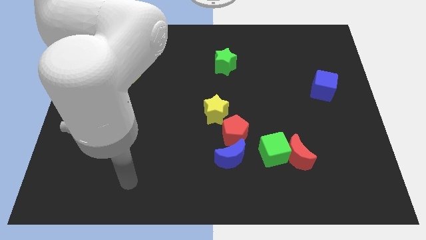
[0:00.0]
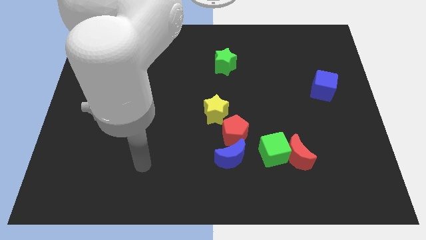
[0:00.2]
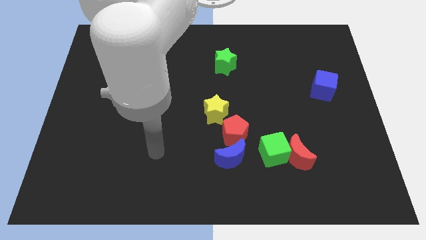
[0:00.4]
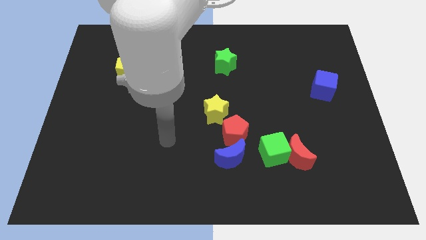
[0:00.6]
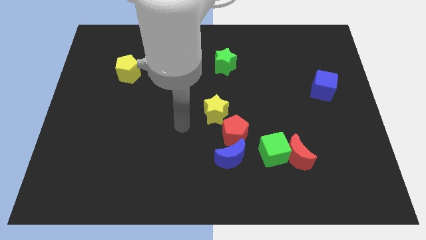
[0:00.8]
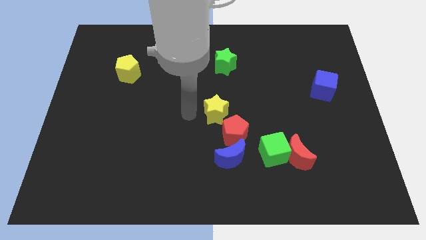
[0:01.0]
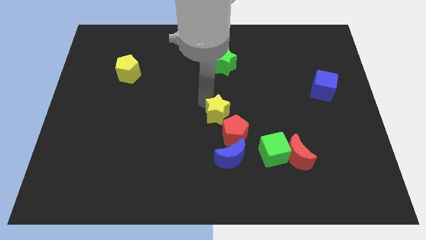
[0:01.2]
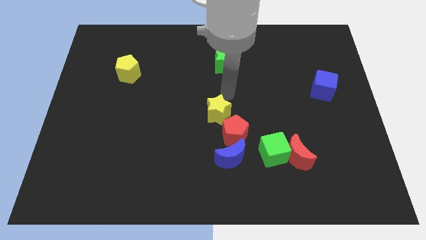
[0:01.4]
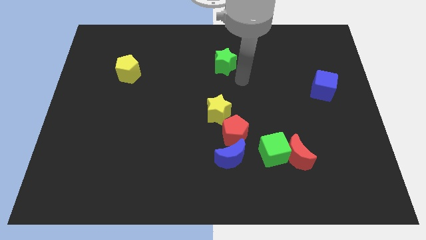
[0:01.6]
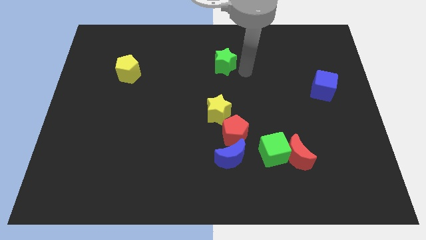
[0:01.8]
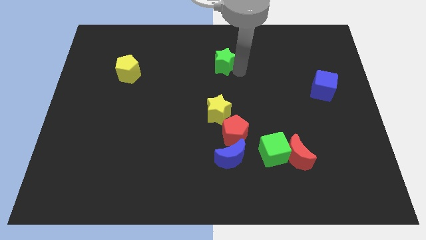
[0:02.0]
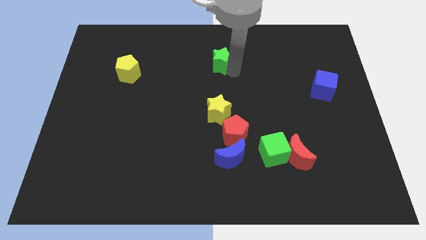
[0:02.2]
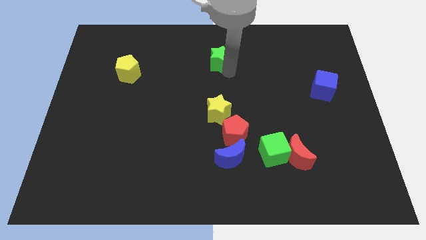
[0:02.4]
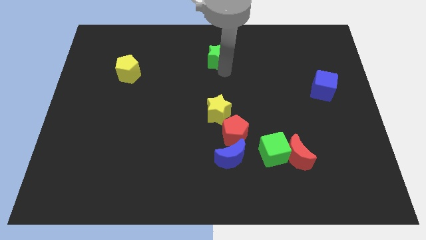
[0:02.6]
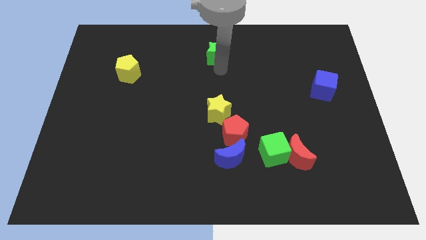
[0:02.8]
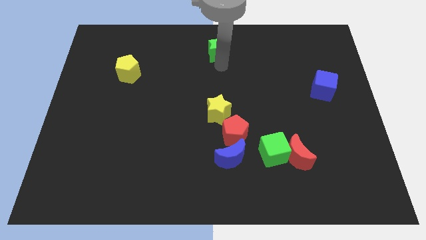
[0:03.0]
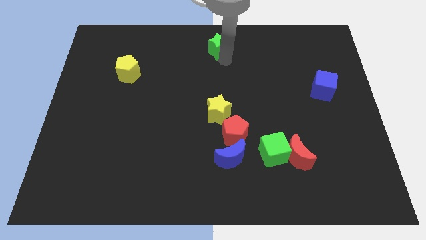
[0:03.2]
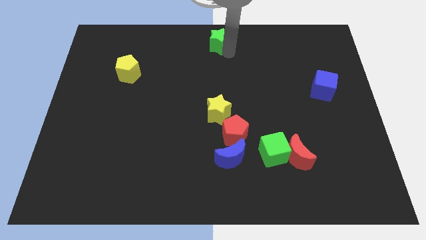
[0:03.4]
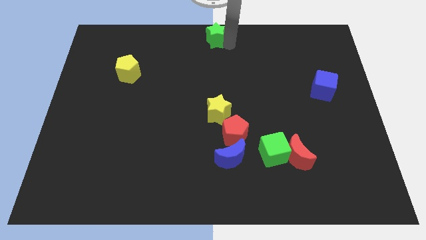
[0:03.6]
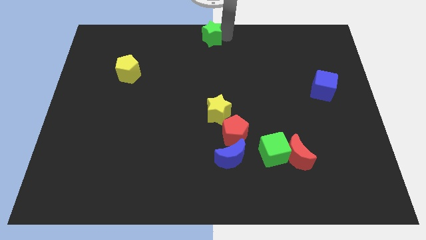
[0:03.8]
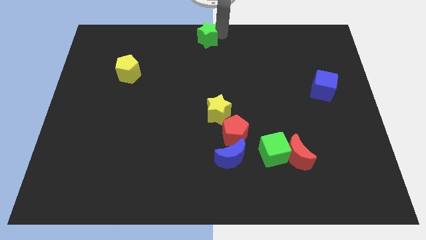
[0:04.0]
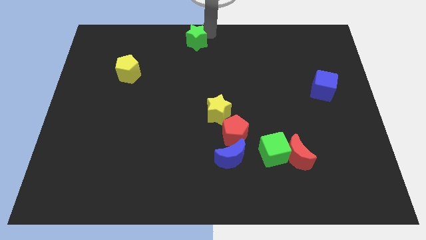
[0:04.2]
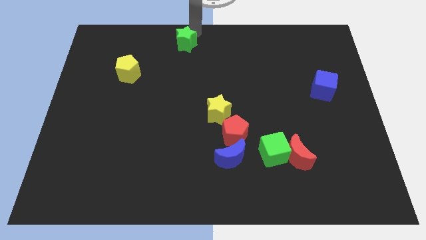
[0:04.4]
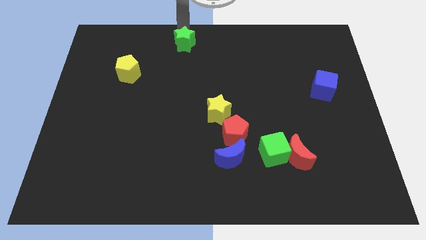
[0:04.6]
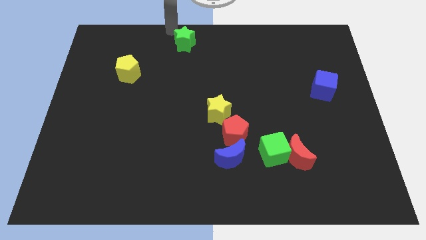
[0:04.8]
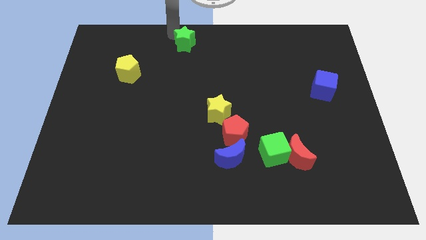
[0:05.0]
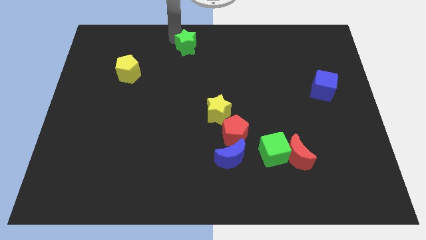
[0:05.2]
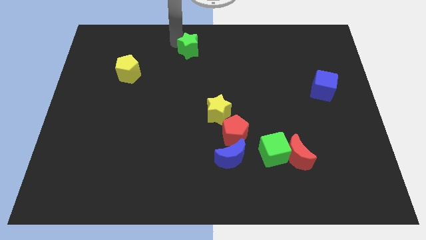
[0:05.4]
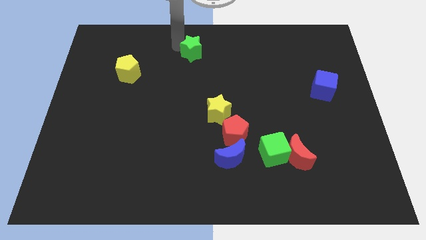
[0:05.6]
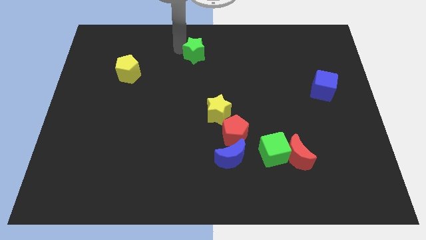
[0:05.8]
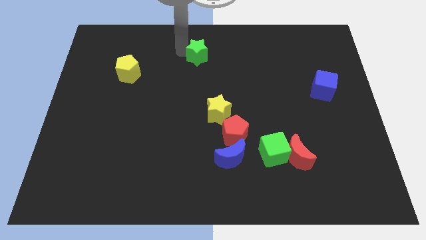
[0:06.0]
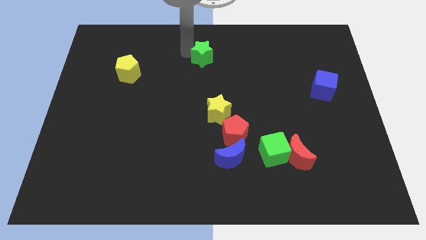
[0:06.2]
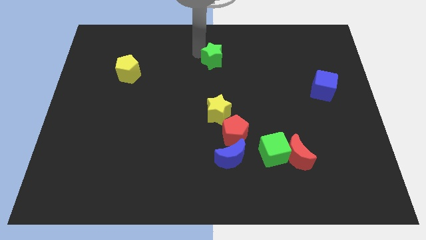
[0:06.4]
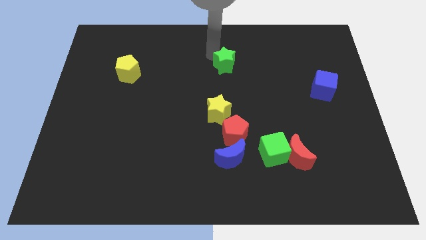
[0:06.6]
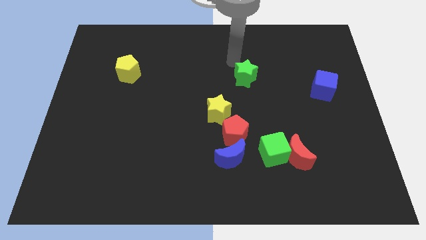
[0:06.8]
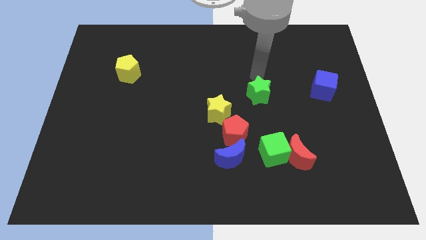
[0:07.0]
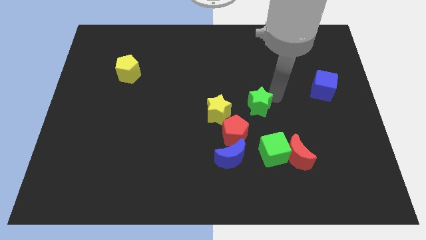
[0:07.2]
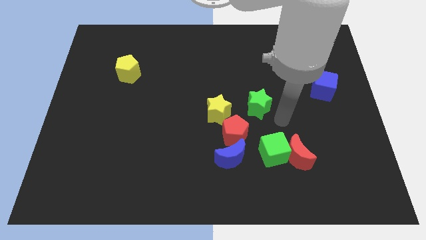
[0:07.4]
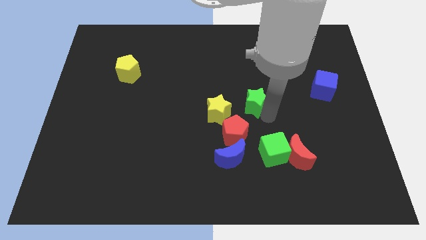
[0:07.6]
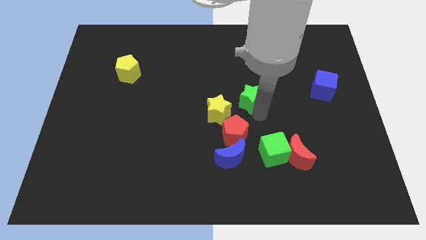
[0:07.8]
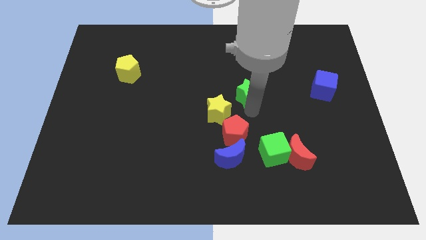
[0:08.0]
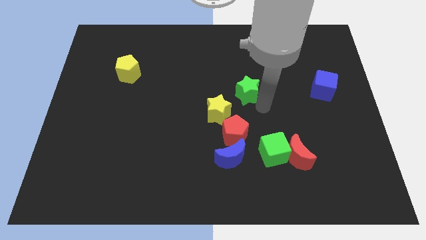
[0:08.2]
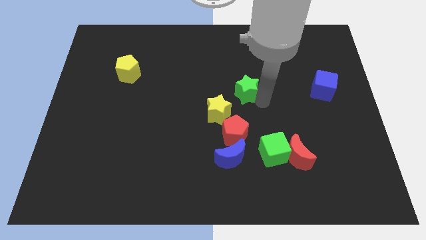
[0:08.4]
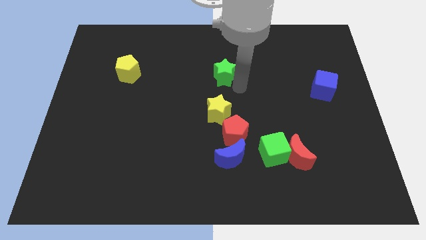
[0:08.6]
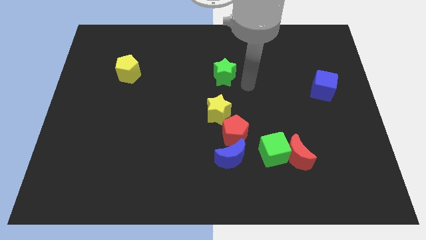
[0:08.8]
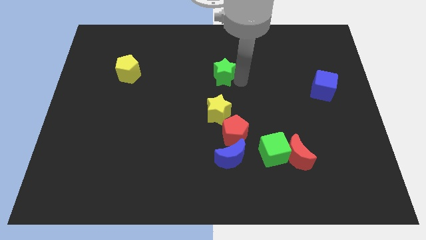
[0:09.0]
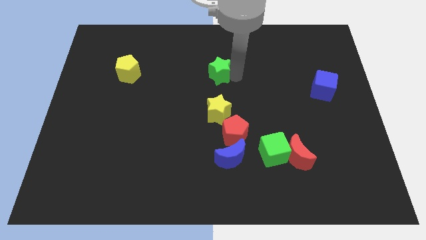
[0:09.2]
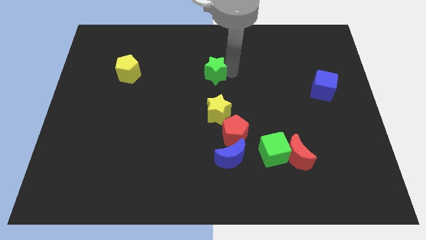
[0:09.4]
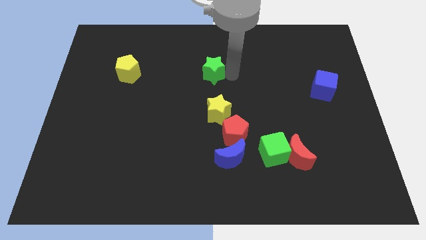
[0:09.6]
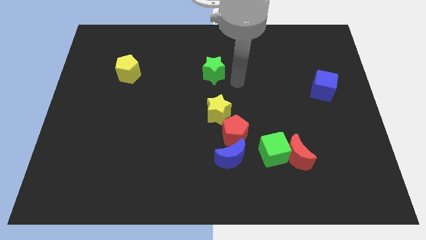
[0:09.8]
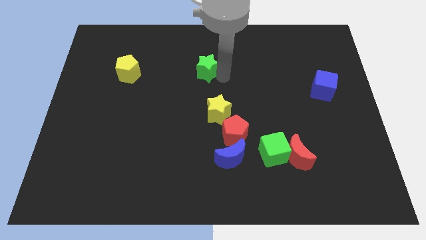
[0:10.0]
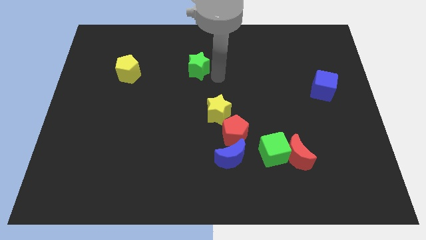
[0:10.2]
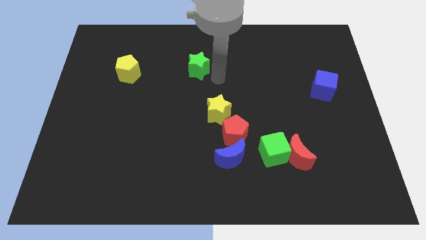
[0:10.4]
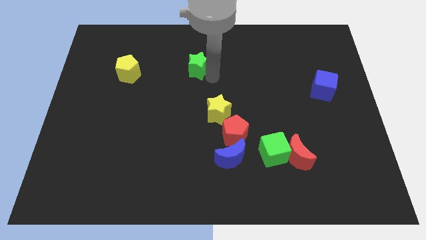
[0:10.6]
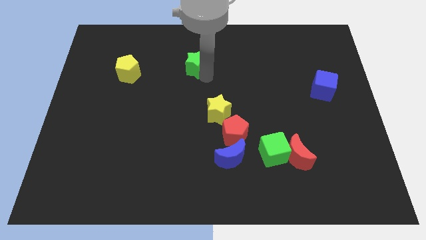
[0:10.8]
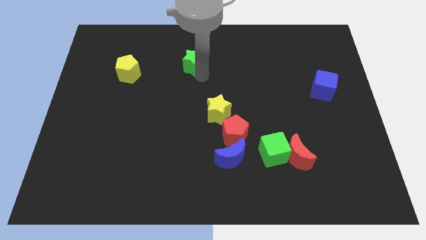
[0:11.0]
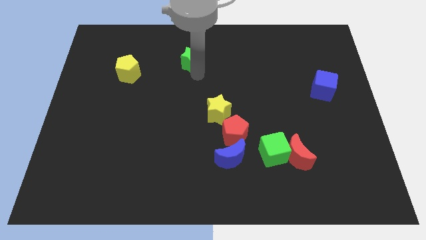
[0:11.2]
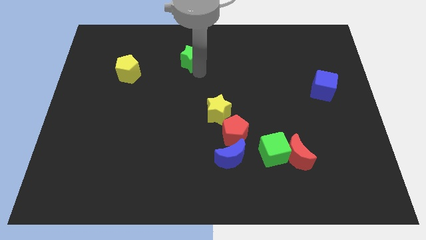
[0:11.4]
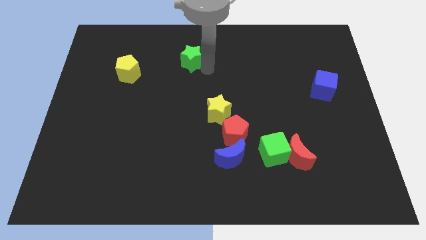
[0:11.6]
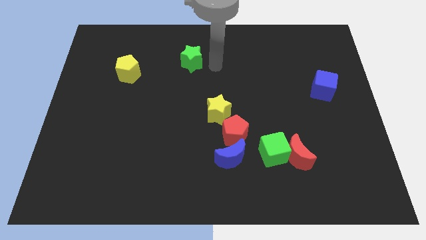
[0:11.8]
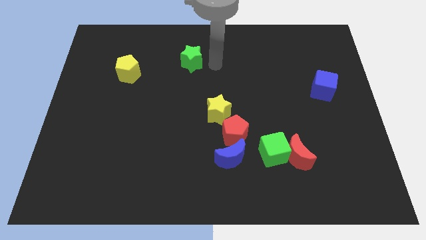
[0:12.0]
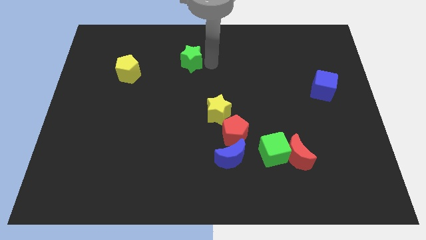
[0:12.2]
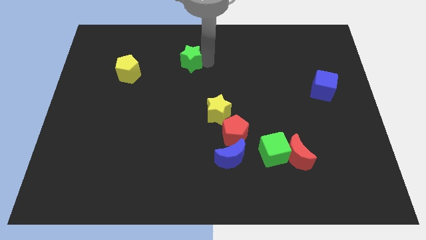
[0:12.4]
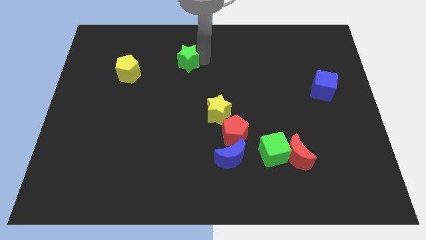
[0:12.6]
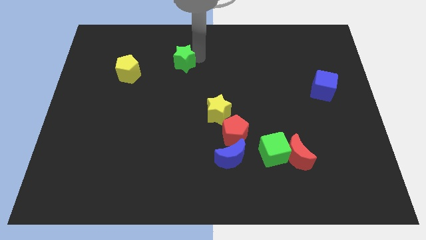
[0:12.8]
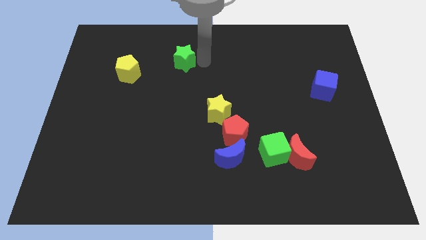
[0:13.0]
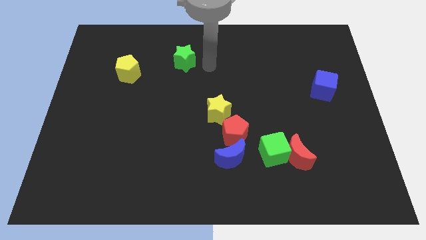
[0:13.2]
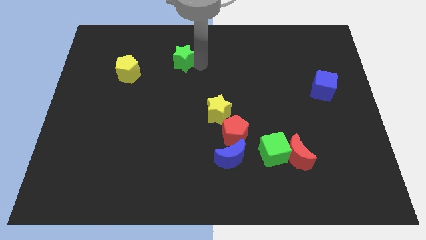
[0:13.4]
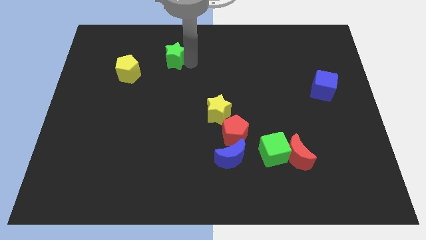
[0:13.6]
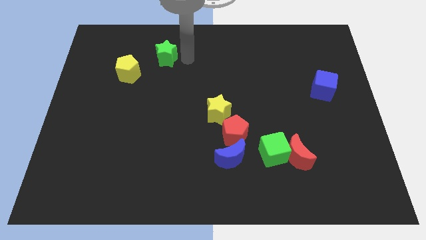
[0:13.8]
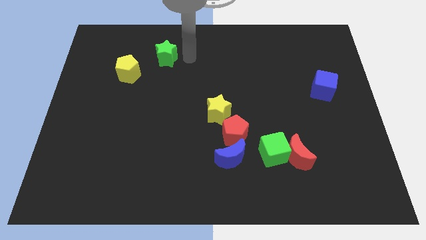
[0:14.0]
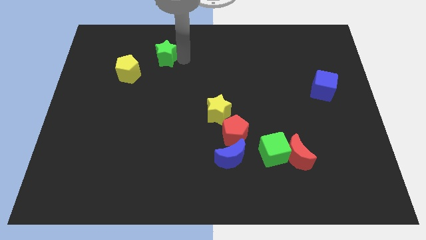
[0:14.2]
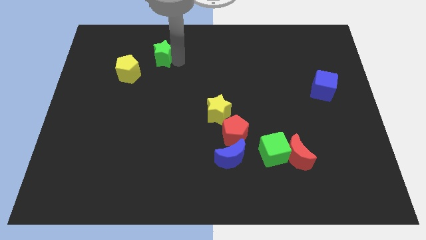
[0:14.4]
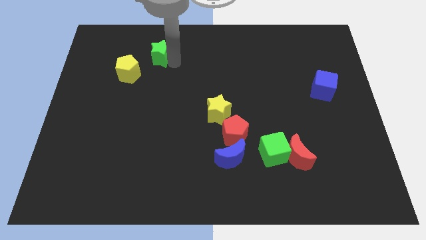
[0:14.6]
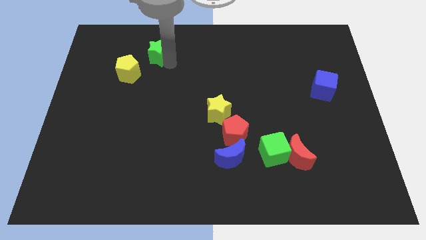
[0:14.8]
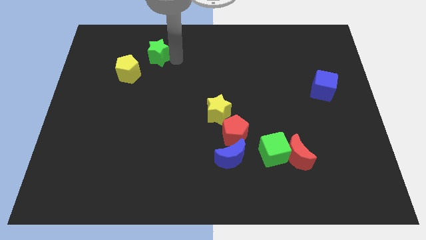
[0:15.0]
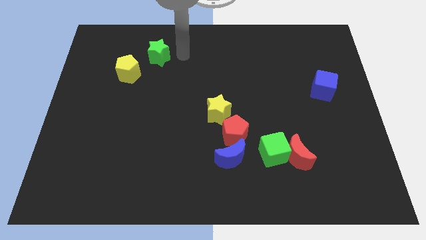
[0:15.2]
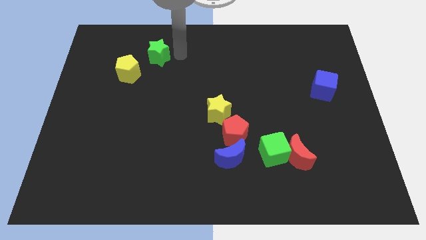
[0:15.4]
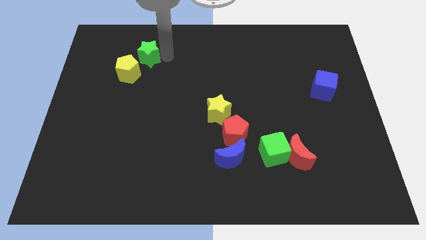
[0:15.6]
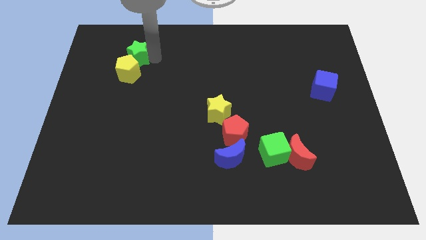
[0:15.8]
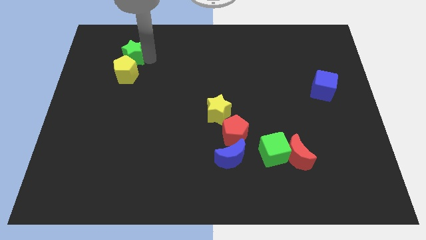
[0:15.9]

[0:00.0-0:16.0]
move the green star to the top left of the yellow pentagon
